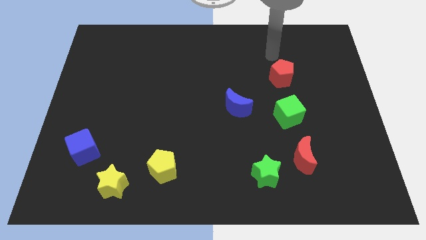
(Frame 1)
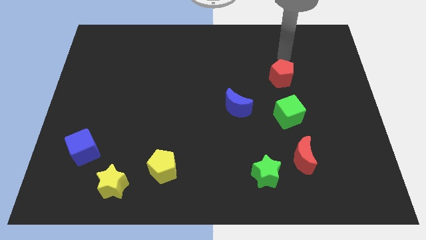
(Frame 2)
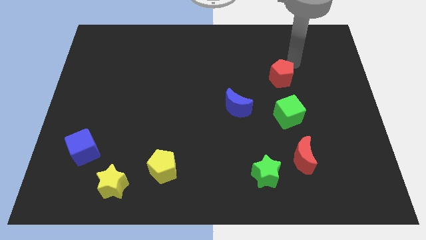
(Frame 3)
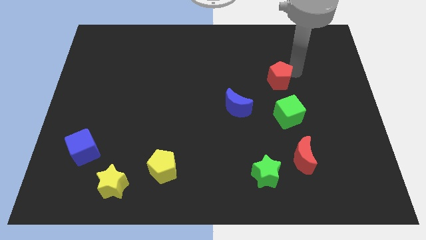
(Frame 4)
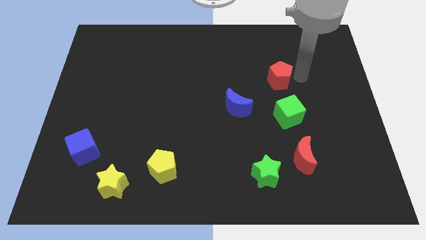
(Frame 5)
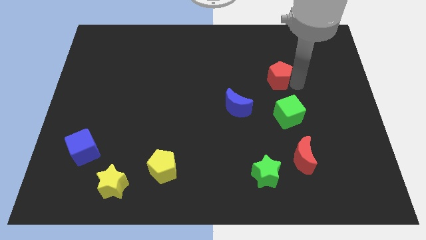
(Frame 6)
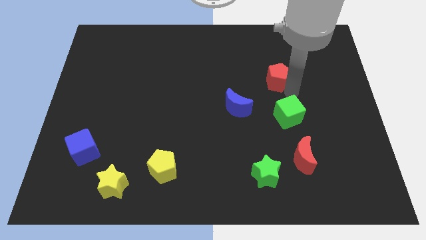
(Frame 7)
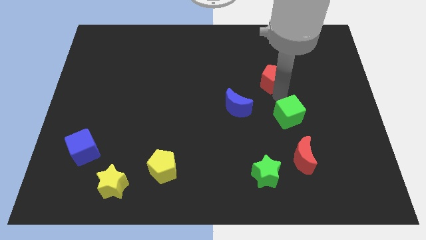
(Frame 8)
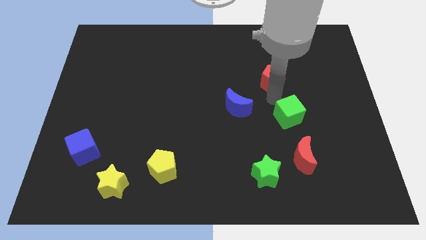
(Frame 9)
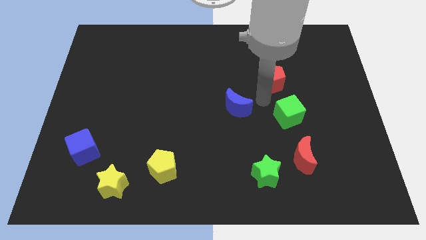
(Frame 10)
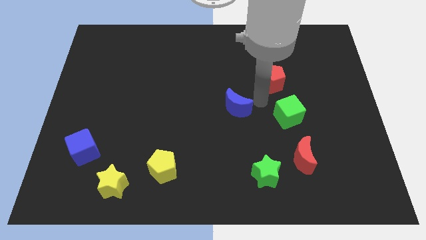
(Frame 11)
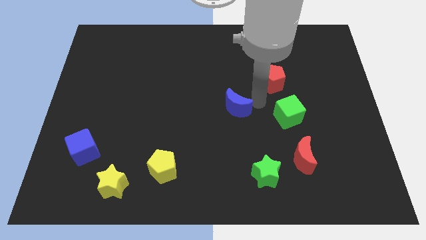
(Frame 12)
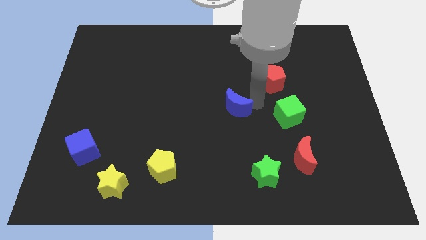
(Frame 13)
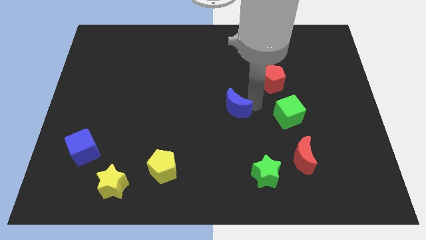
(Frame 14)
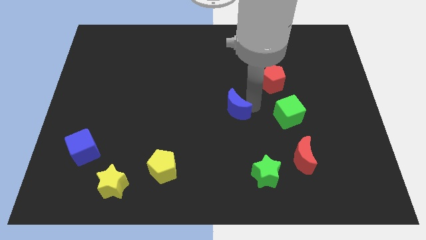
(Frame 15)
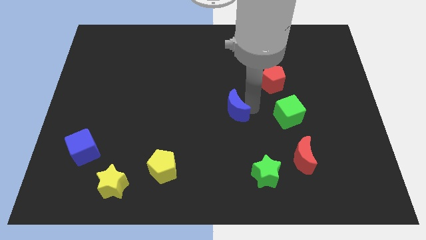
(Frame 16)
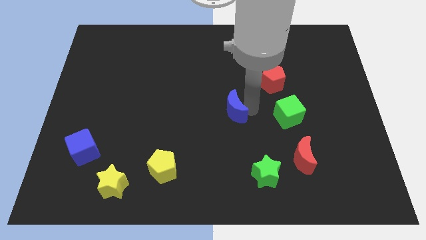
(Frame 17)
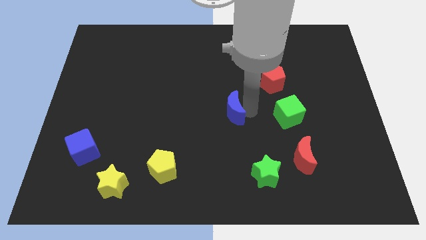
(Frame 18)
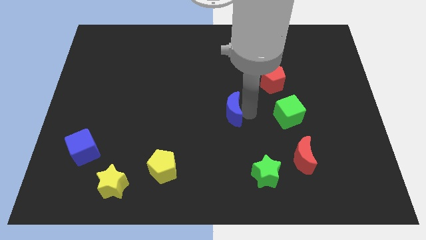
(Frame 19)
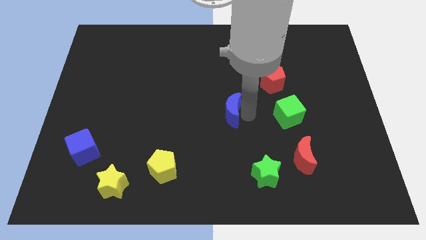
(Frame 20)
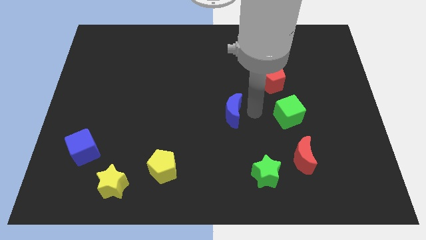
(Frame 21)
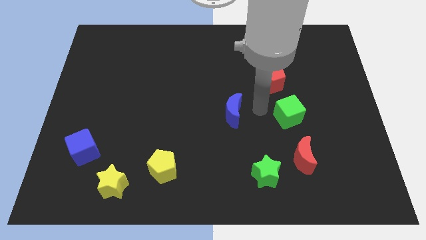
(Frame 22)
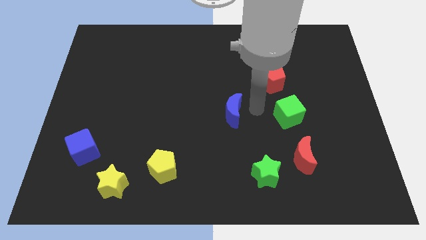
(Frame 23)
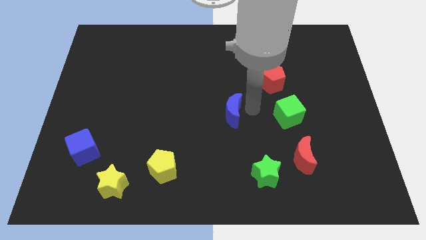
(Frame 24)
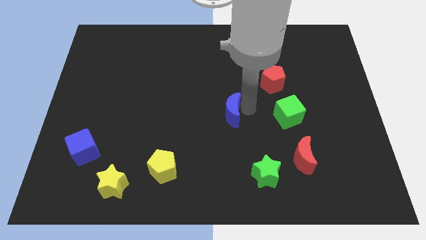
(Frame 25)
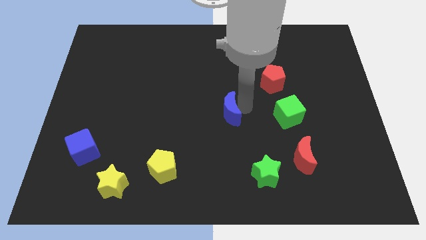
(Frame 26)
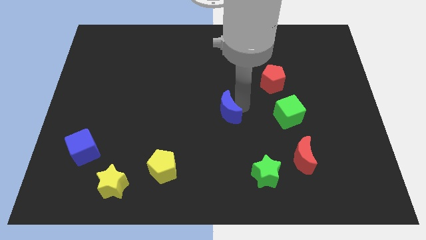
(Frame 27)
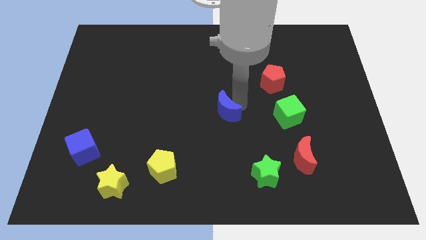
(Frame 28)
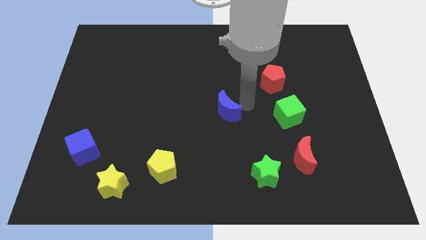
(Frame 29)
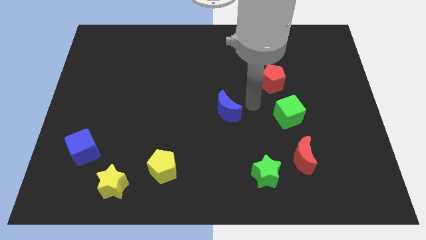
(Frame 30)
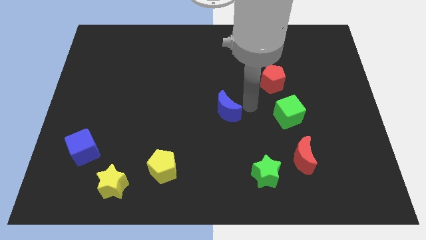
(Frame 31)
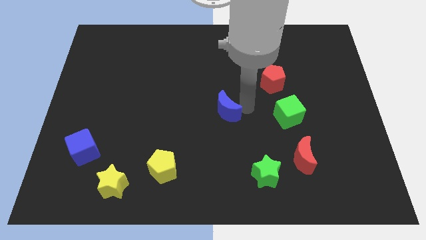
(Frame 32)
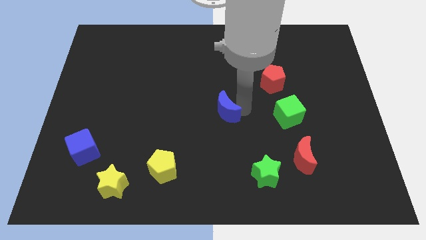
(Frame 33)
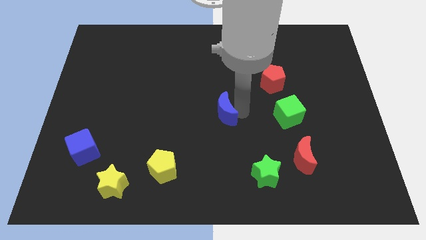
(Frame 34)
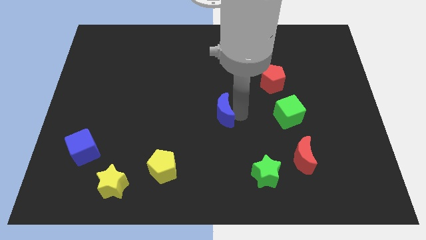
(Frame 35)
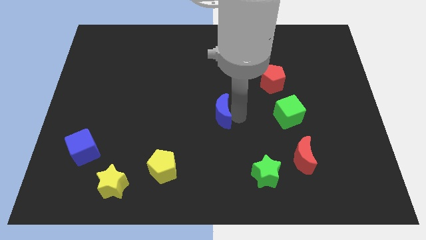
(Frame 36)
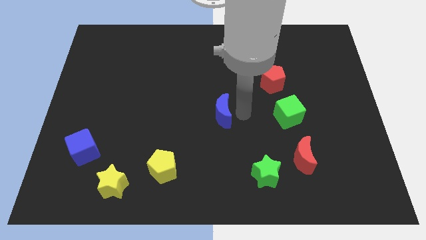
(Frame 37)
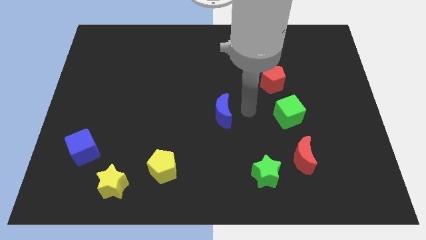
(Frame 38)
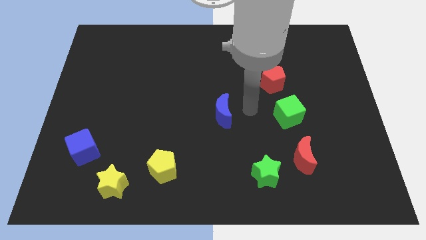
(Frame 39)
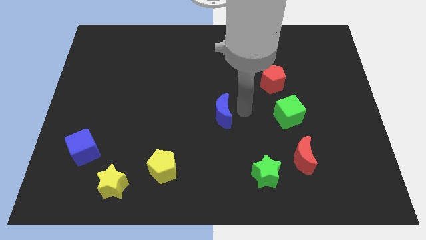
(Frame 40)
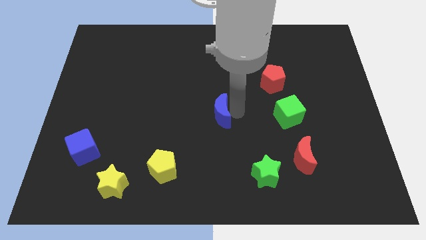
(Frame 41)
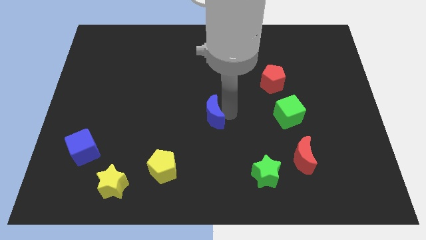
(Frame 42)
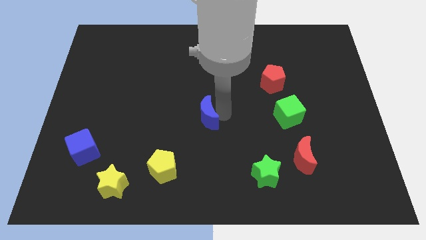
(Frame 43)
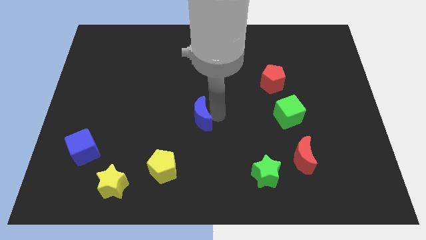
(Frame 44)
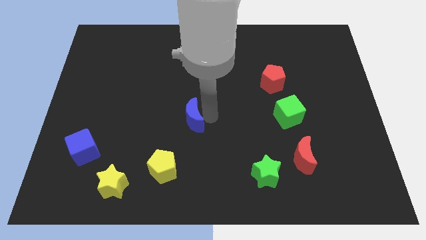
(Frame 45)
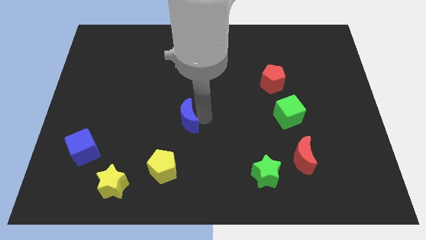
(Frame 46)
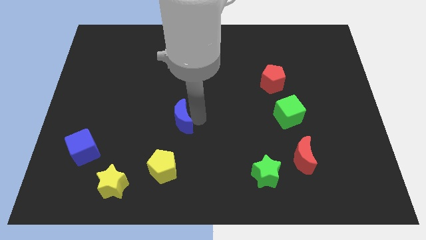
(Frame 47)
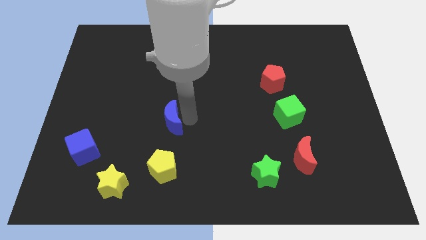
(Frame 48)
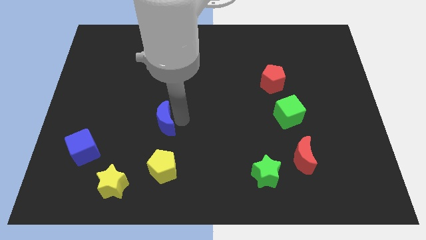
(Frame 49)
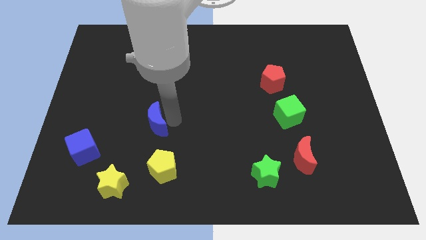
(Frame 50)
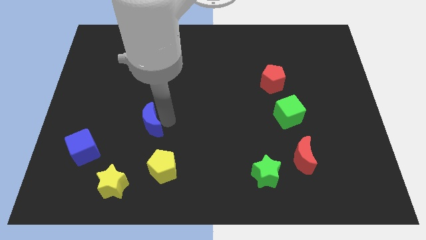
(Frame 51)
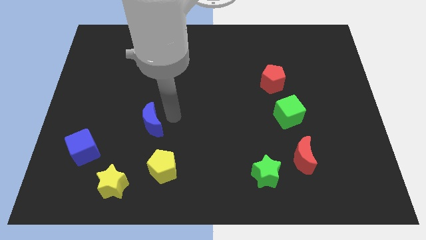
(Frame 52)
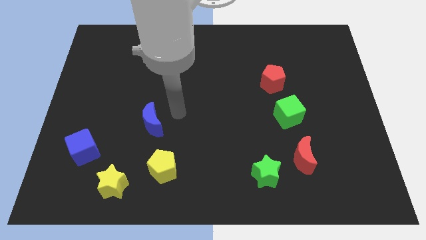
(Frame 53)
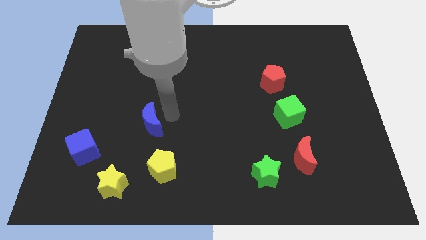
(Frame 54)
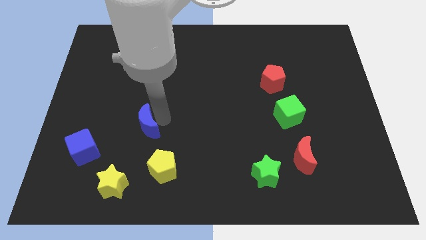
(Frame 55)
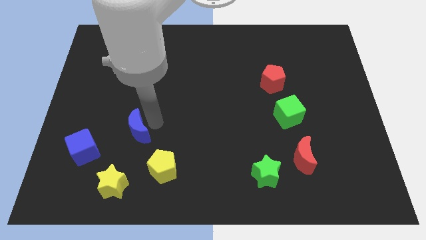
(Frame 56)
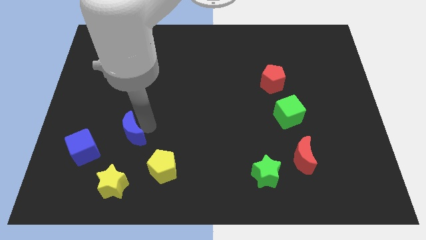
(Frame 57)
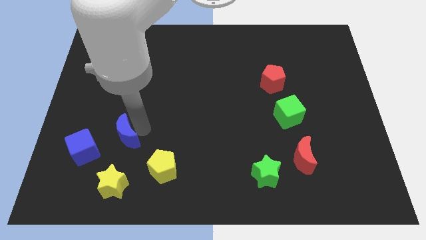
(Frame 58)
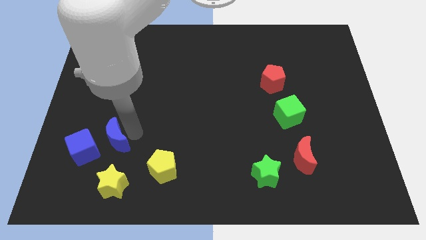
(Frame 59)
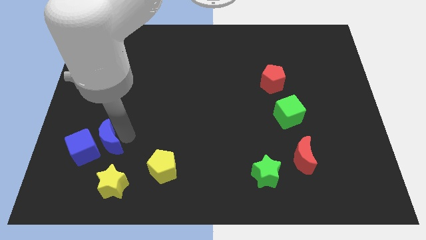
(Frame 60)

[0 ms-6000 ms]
slide the blue moon close to the blue cube

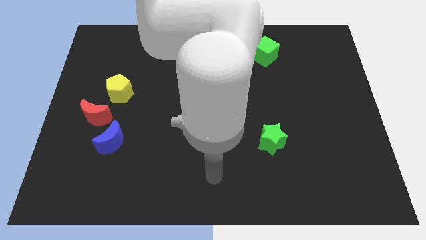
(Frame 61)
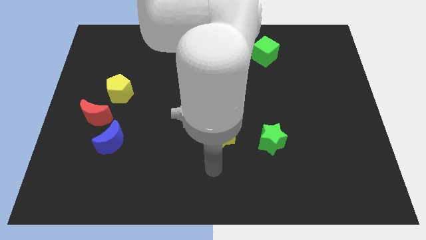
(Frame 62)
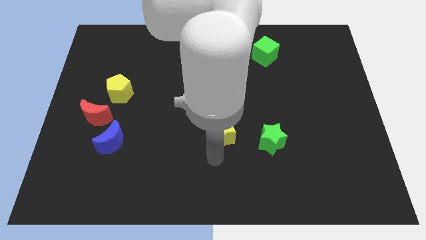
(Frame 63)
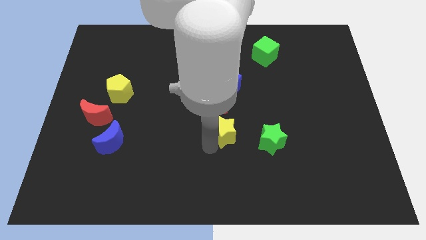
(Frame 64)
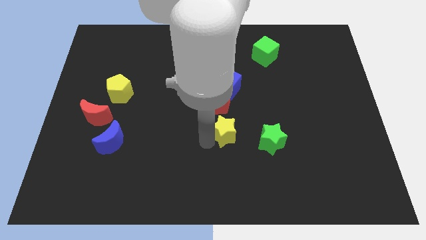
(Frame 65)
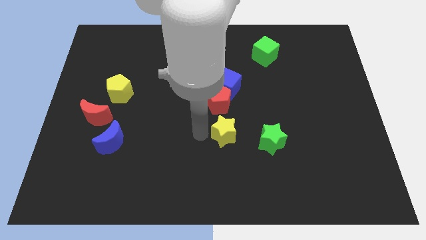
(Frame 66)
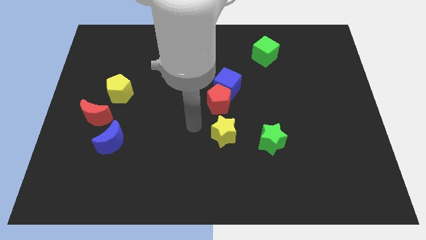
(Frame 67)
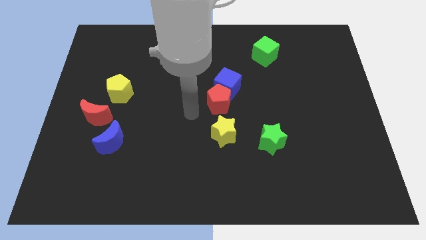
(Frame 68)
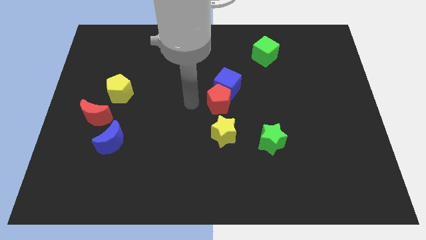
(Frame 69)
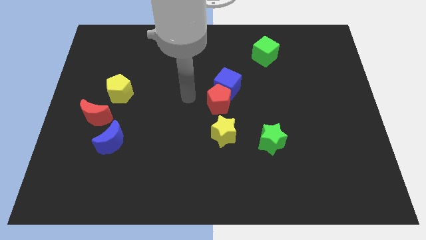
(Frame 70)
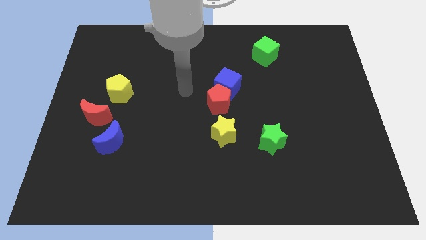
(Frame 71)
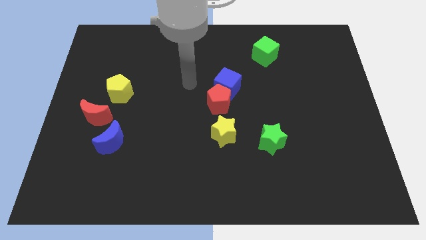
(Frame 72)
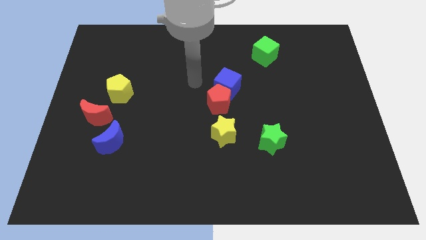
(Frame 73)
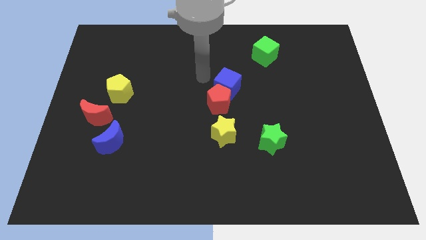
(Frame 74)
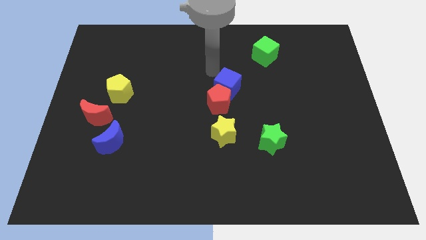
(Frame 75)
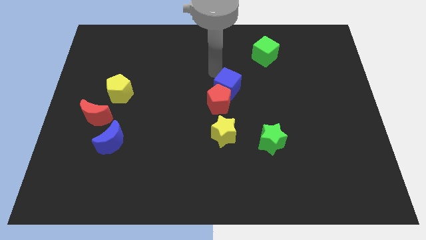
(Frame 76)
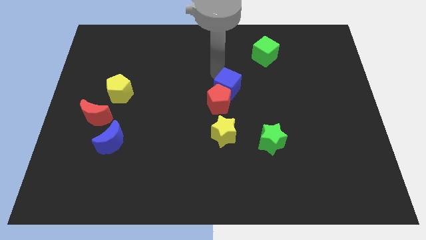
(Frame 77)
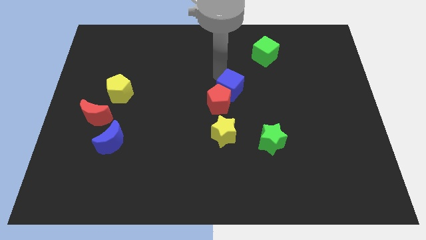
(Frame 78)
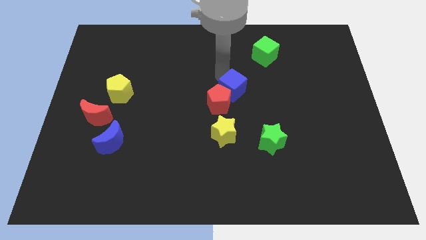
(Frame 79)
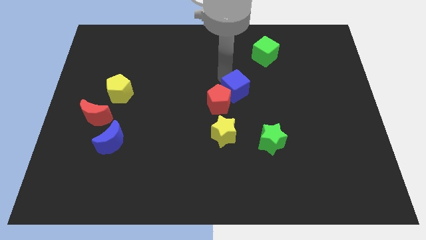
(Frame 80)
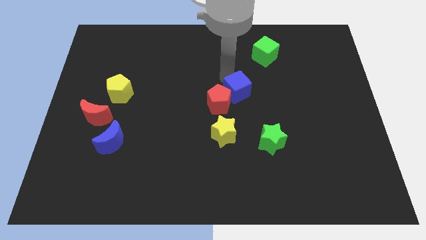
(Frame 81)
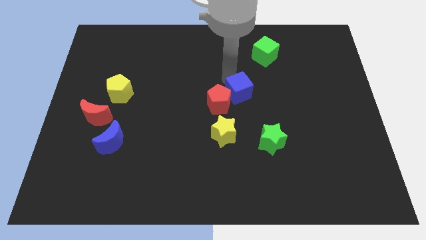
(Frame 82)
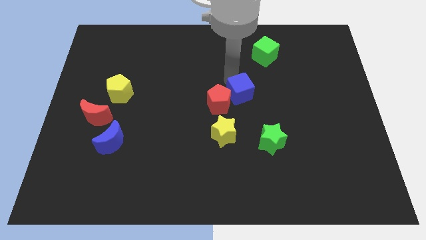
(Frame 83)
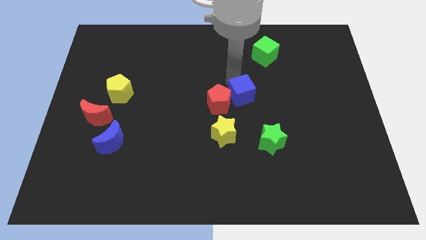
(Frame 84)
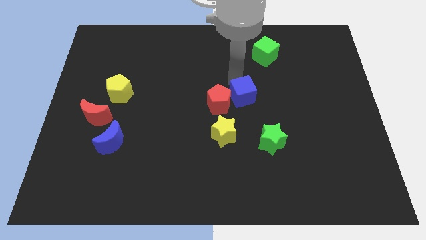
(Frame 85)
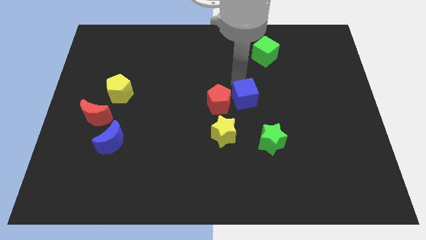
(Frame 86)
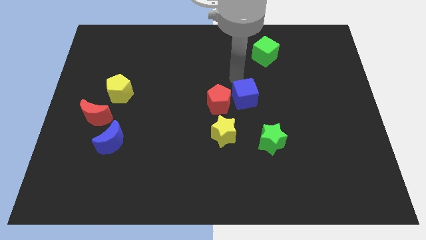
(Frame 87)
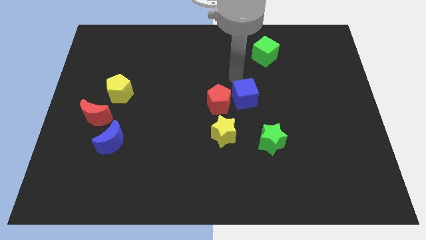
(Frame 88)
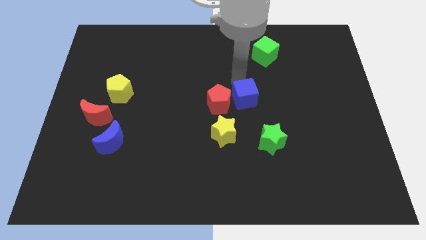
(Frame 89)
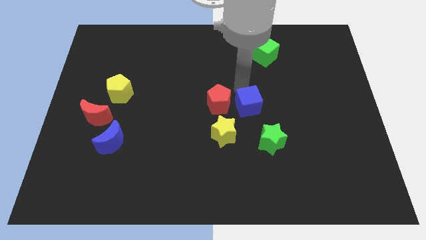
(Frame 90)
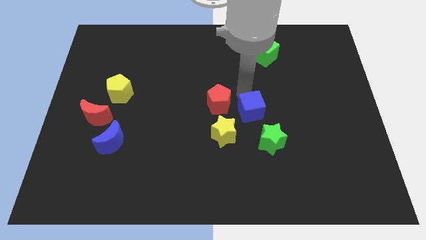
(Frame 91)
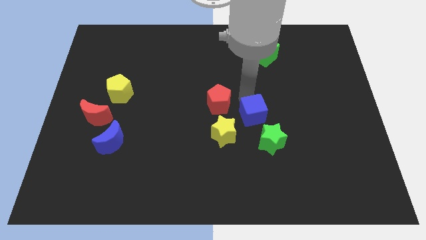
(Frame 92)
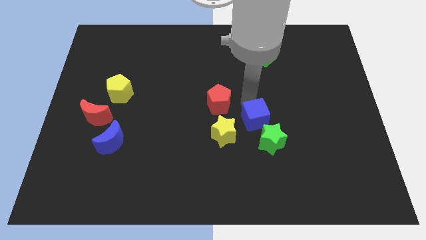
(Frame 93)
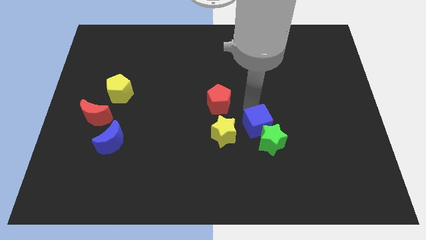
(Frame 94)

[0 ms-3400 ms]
slide the blue cube to the green star
